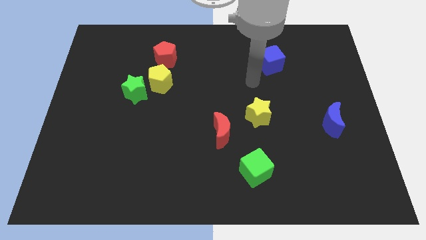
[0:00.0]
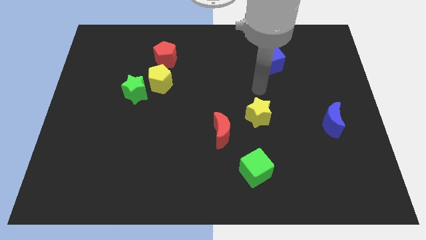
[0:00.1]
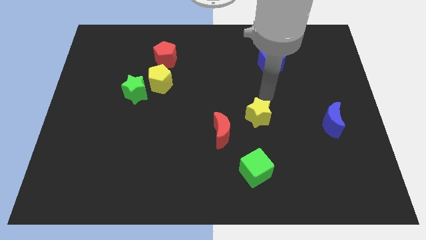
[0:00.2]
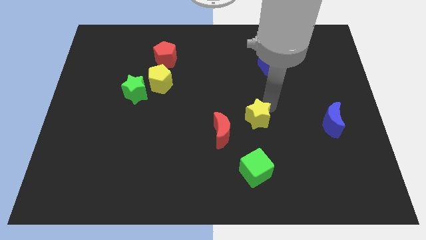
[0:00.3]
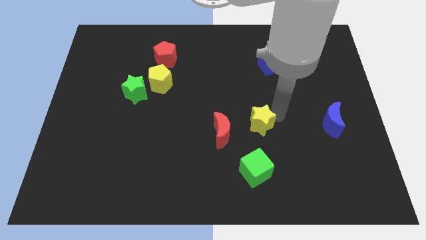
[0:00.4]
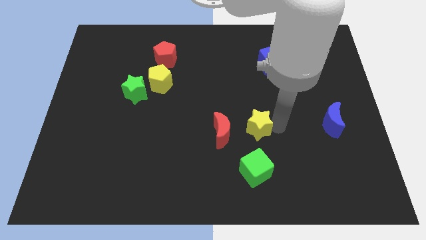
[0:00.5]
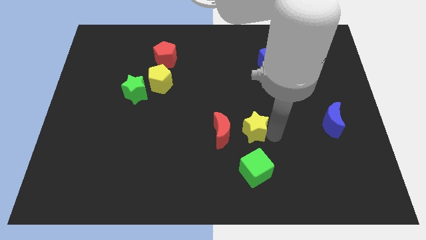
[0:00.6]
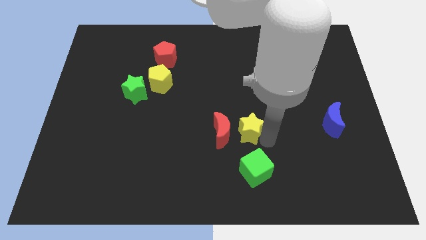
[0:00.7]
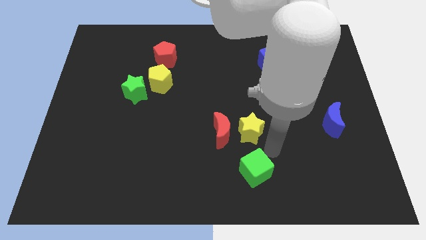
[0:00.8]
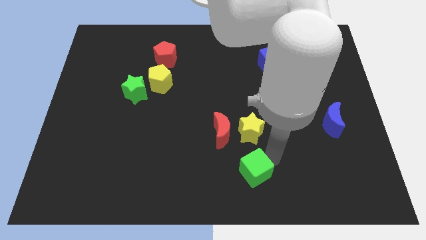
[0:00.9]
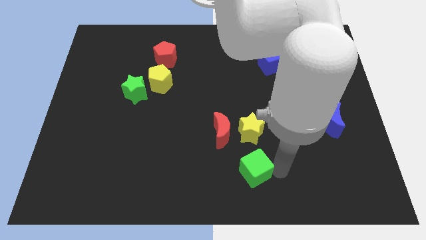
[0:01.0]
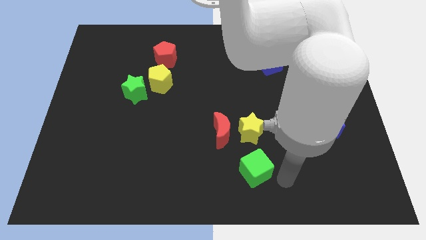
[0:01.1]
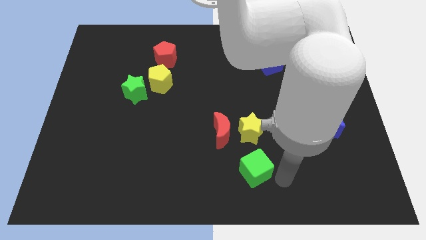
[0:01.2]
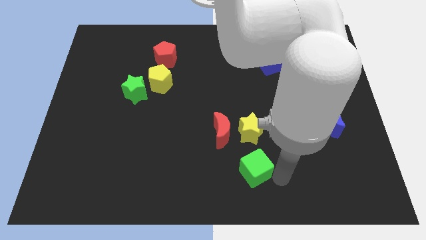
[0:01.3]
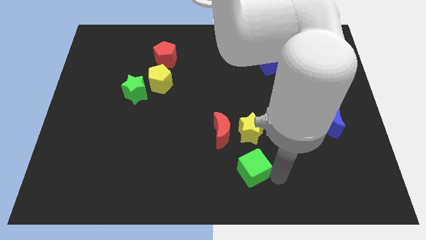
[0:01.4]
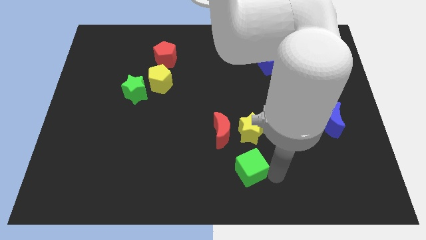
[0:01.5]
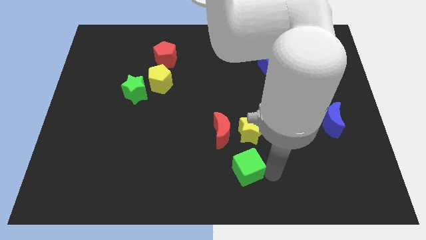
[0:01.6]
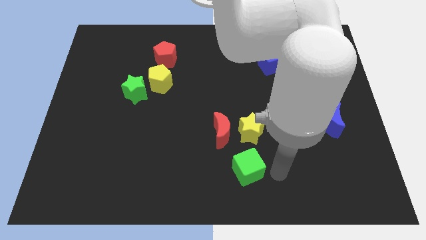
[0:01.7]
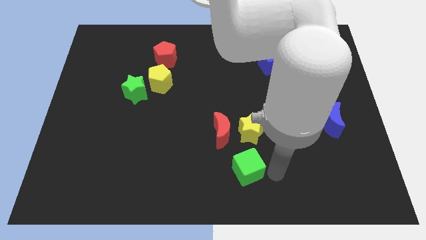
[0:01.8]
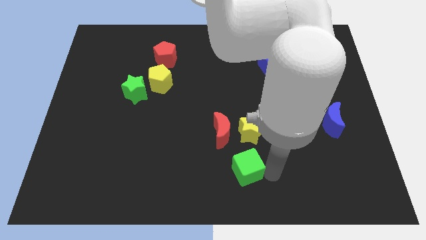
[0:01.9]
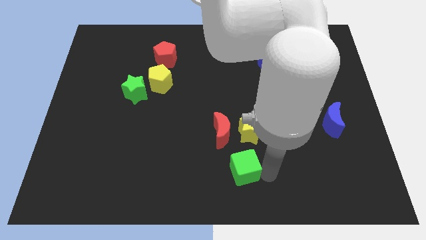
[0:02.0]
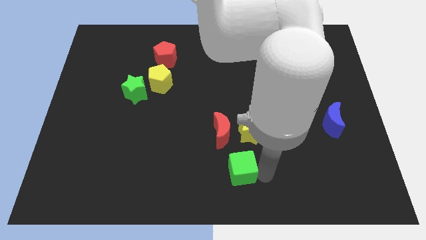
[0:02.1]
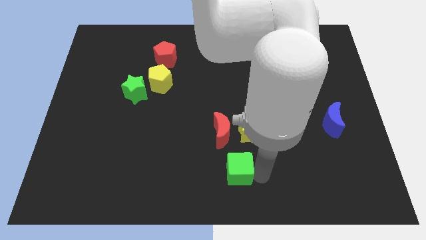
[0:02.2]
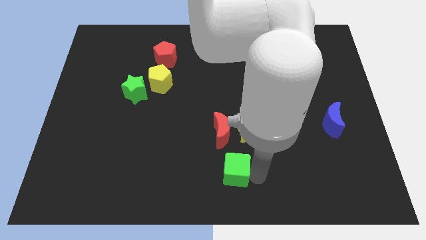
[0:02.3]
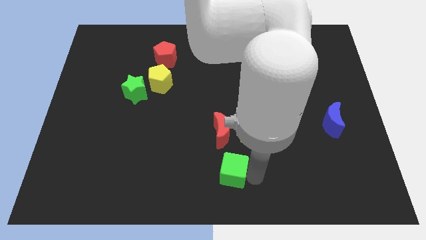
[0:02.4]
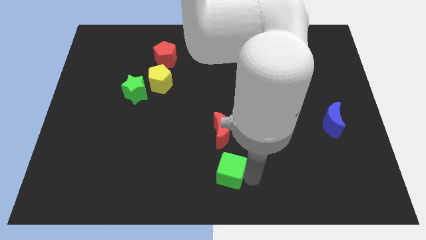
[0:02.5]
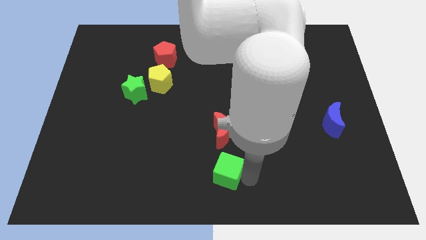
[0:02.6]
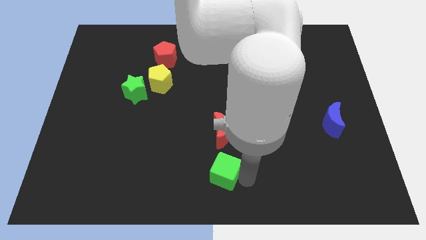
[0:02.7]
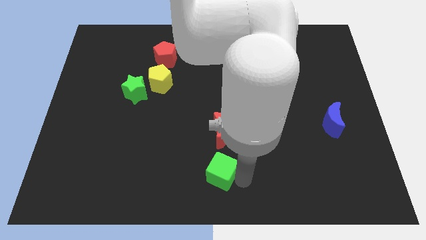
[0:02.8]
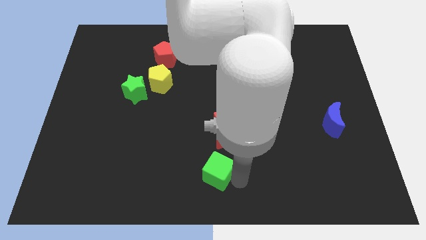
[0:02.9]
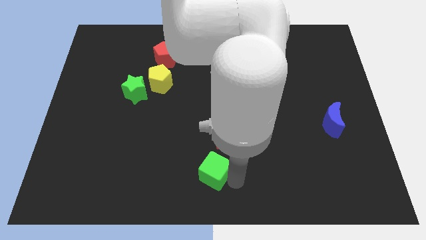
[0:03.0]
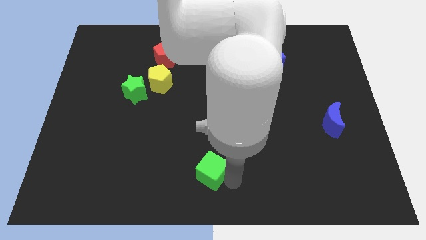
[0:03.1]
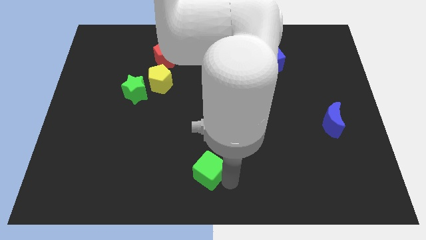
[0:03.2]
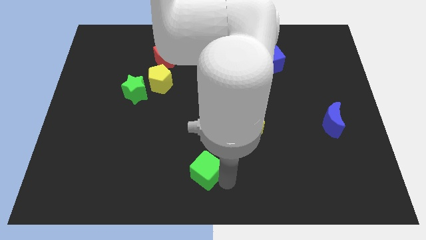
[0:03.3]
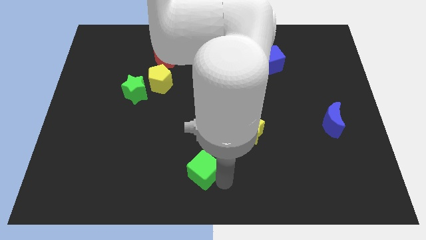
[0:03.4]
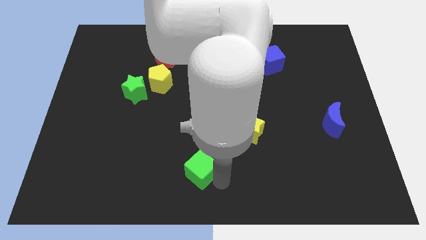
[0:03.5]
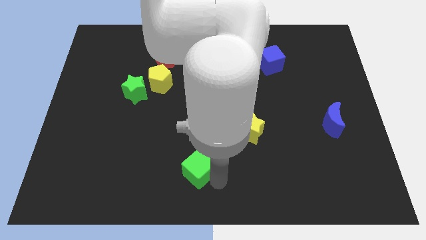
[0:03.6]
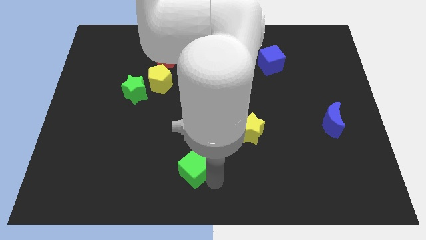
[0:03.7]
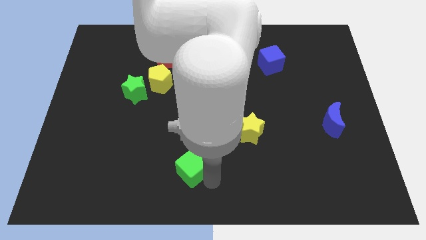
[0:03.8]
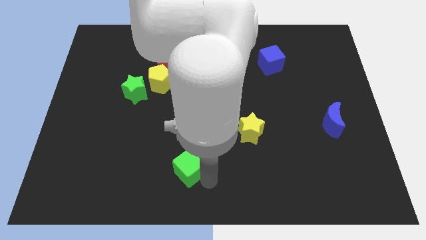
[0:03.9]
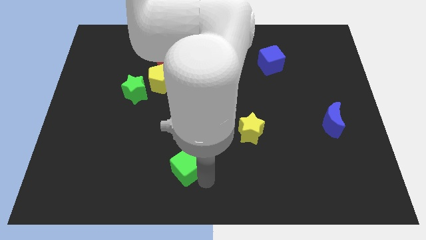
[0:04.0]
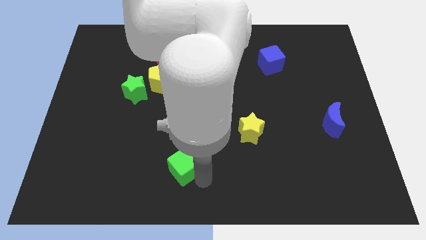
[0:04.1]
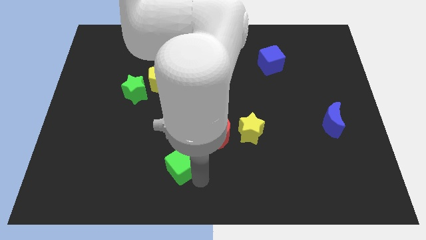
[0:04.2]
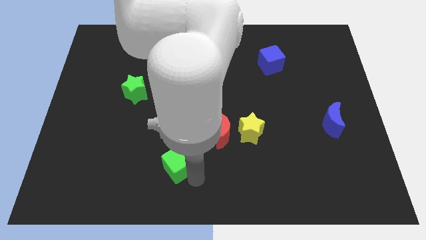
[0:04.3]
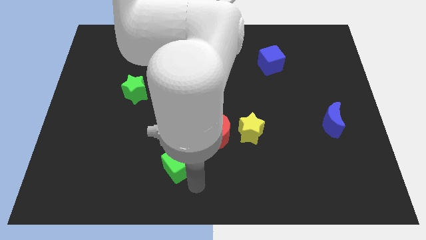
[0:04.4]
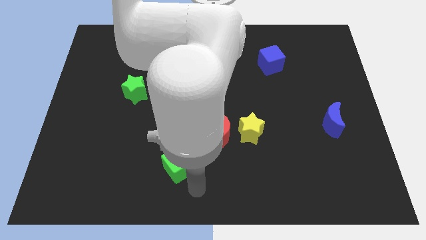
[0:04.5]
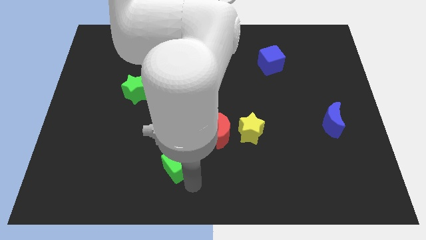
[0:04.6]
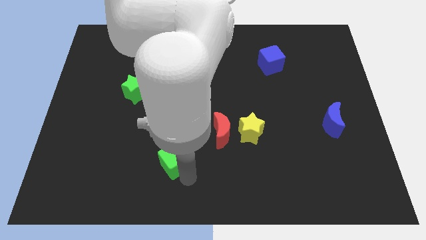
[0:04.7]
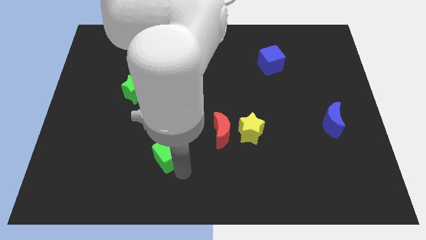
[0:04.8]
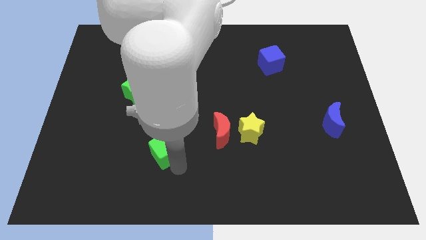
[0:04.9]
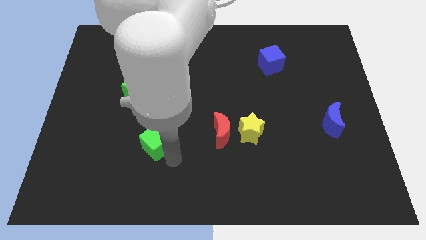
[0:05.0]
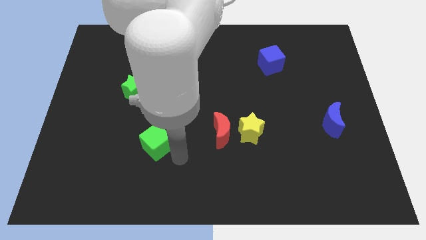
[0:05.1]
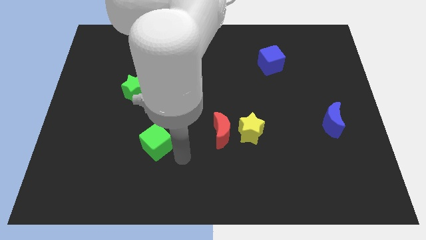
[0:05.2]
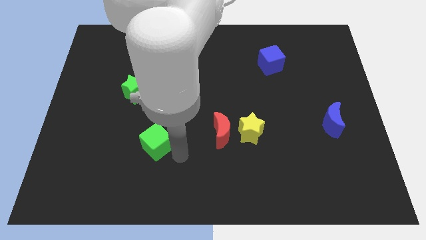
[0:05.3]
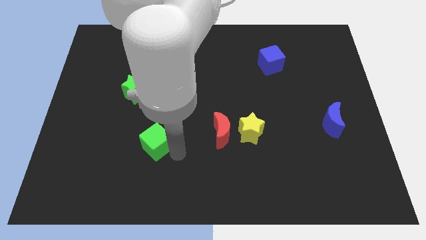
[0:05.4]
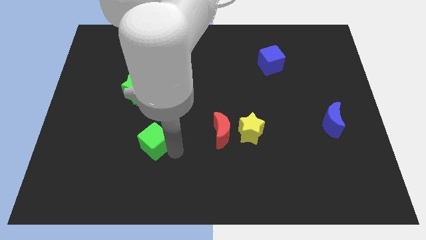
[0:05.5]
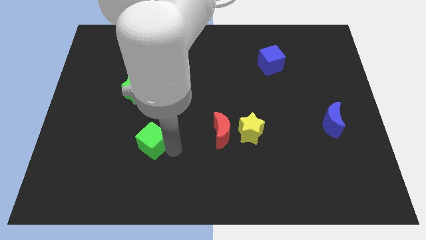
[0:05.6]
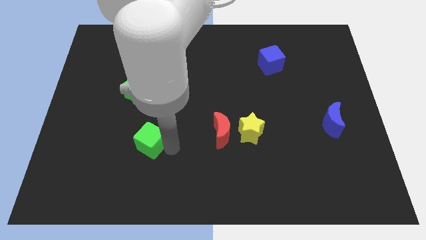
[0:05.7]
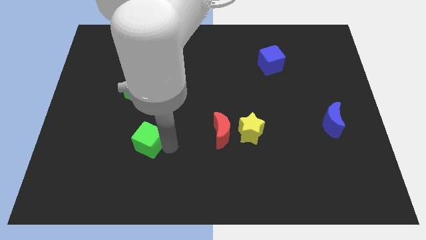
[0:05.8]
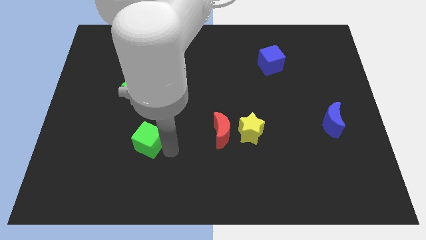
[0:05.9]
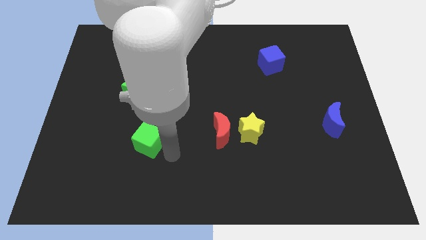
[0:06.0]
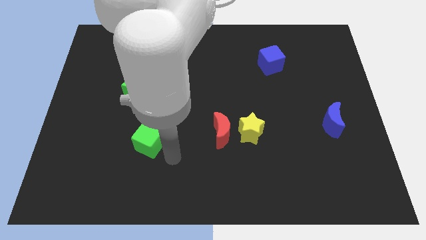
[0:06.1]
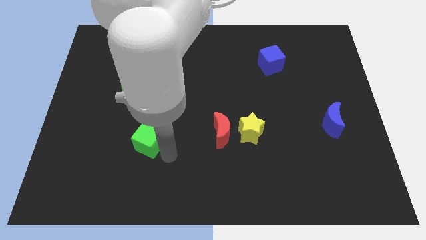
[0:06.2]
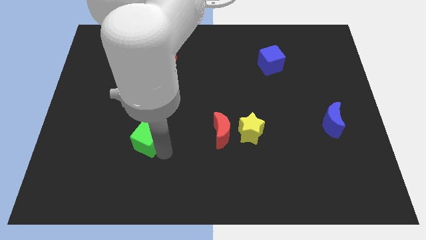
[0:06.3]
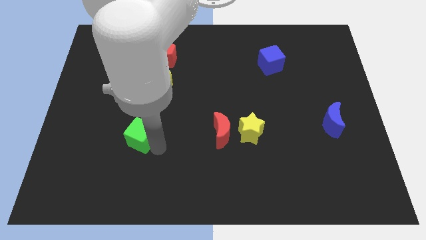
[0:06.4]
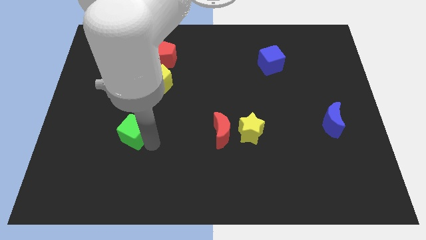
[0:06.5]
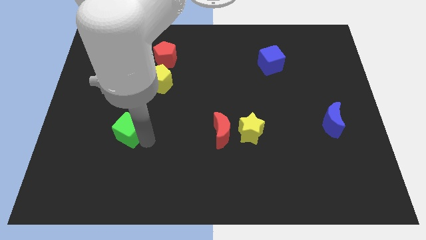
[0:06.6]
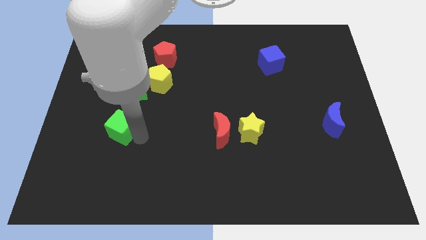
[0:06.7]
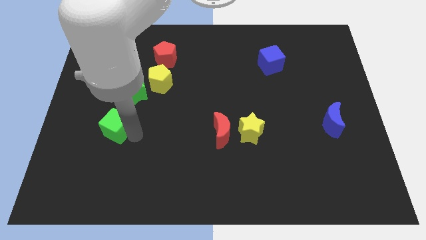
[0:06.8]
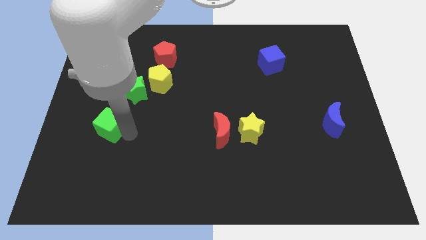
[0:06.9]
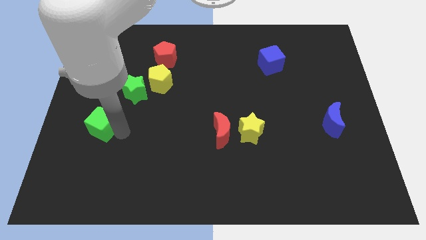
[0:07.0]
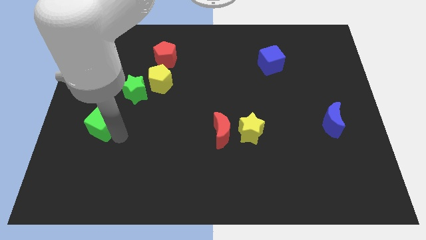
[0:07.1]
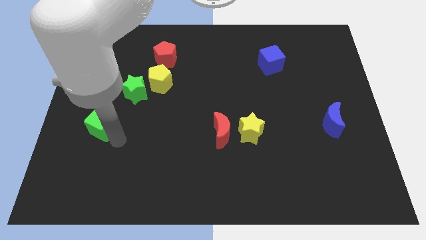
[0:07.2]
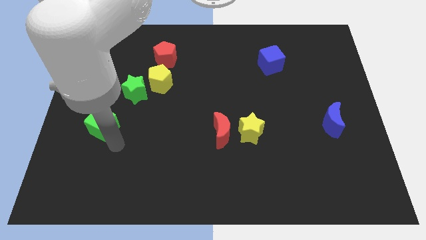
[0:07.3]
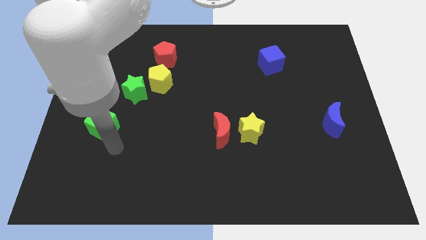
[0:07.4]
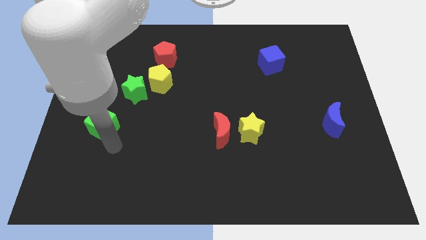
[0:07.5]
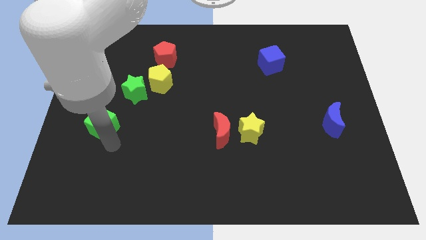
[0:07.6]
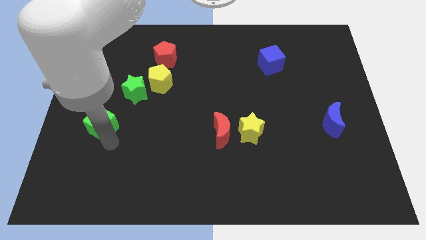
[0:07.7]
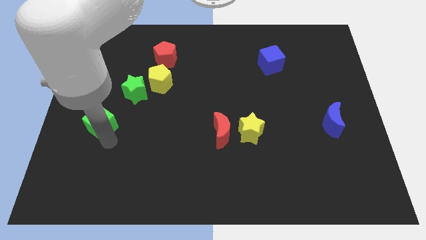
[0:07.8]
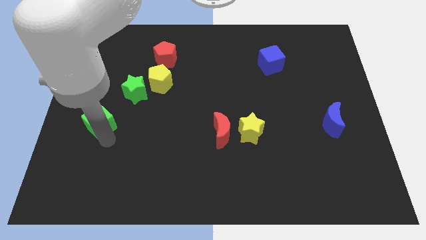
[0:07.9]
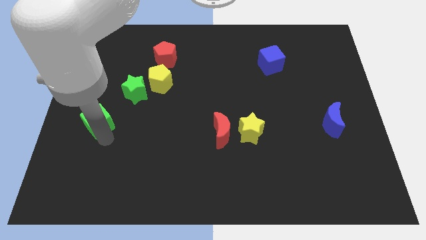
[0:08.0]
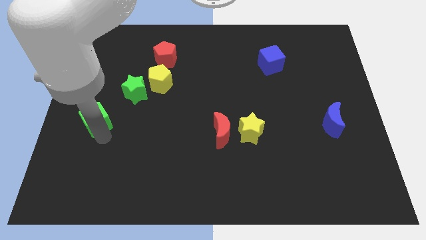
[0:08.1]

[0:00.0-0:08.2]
push the green cube to the left side of the board
